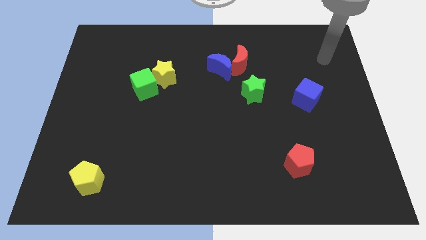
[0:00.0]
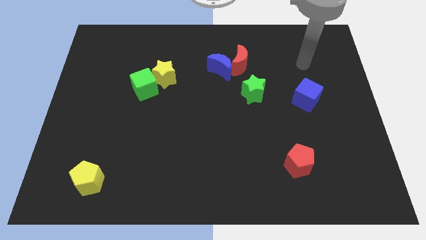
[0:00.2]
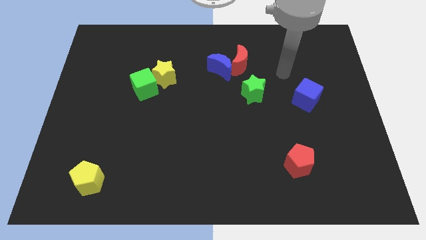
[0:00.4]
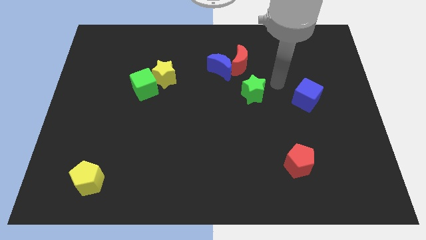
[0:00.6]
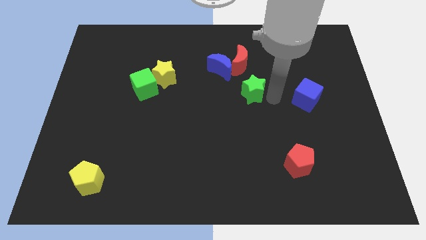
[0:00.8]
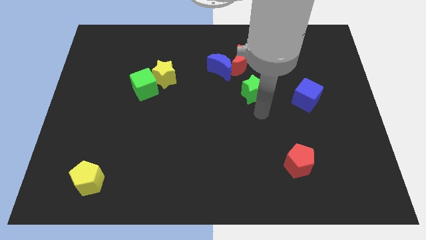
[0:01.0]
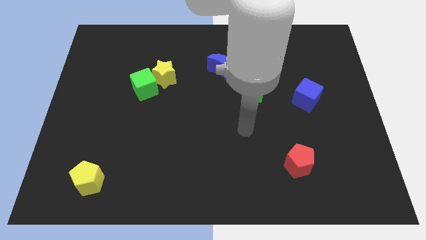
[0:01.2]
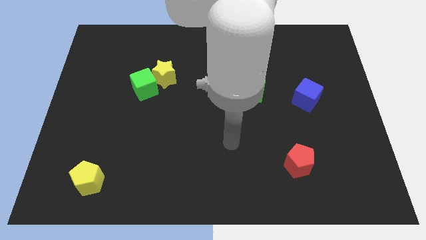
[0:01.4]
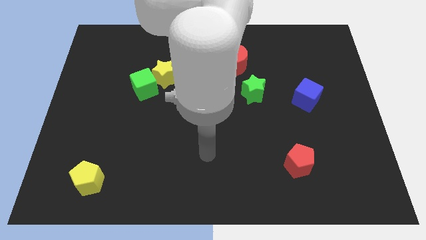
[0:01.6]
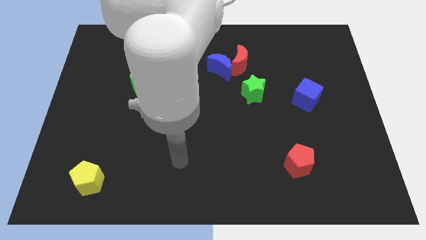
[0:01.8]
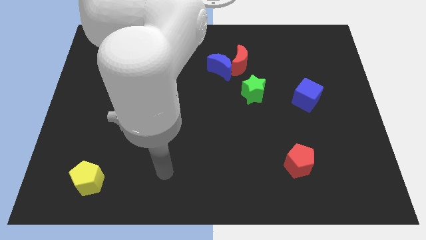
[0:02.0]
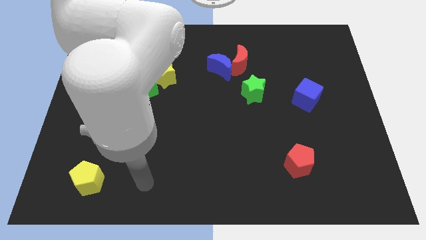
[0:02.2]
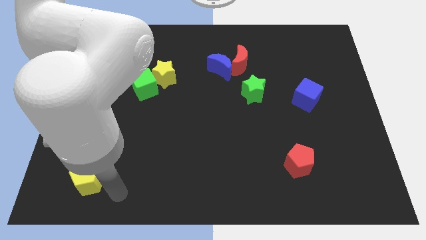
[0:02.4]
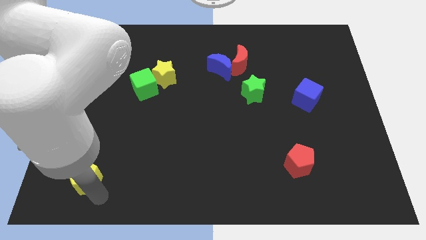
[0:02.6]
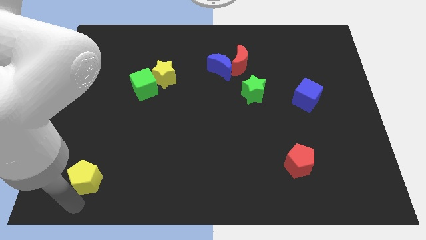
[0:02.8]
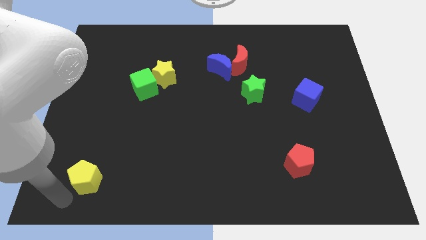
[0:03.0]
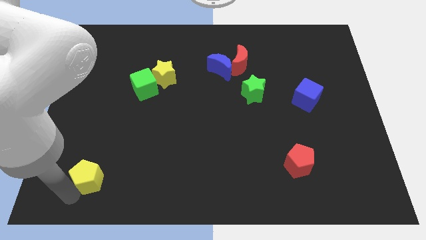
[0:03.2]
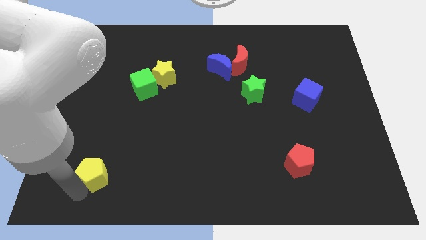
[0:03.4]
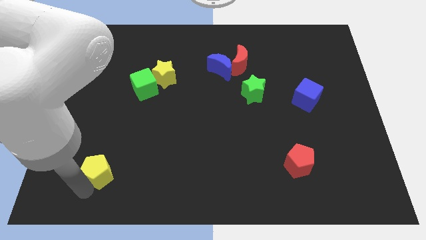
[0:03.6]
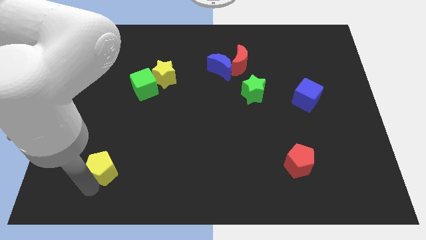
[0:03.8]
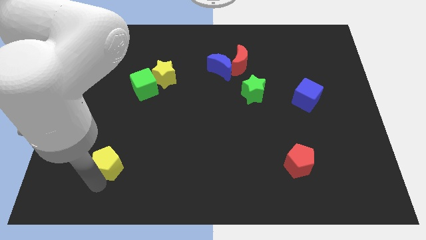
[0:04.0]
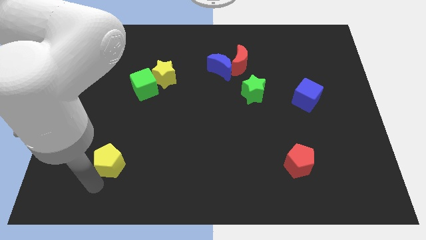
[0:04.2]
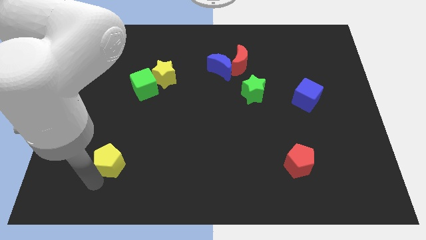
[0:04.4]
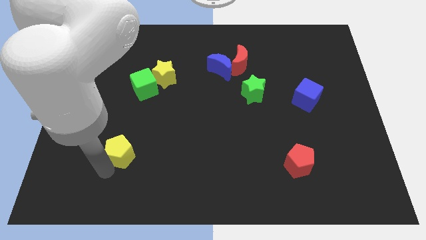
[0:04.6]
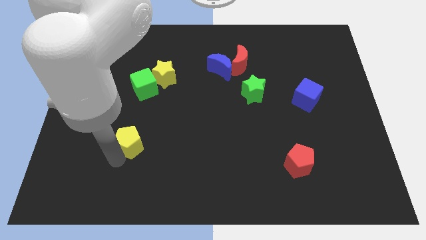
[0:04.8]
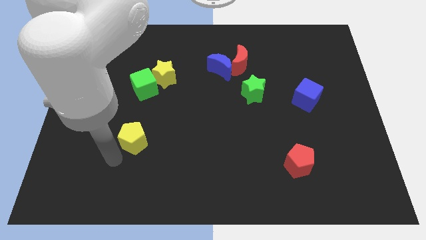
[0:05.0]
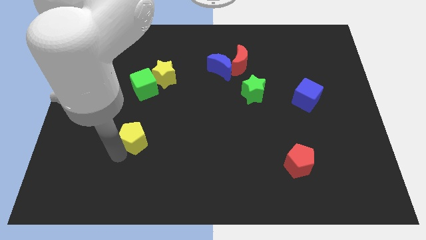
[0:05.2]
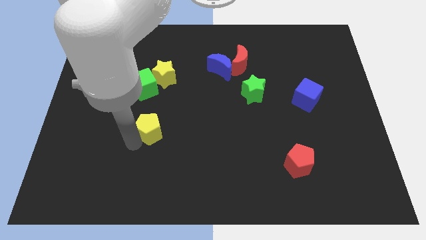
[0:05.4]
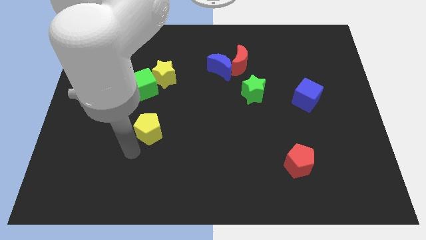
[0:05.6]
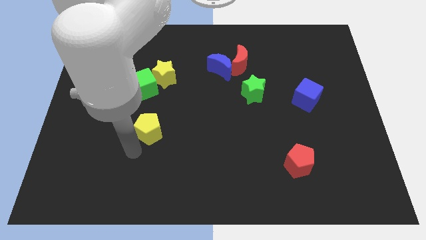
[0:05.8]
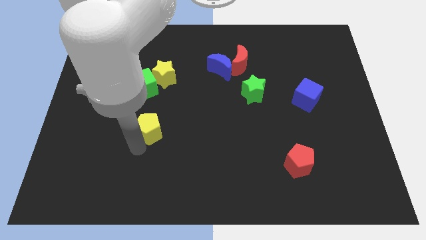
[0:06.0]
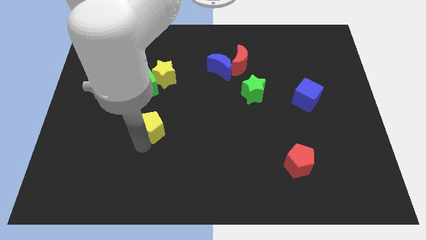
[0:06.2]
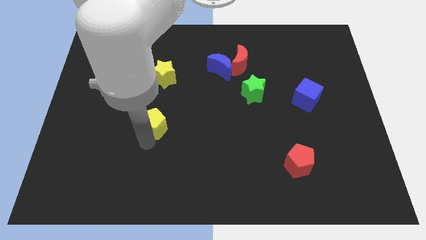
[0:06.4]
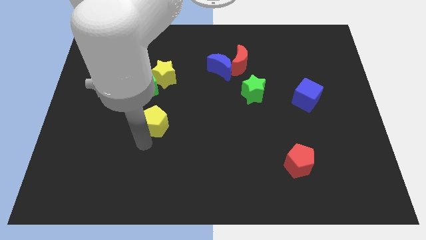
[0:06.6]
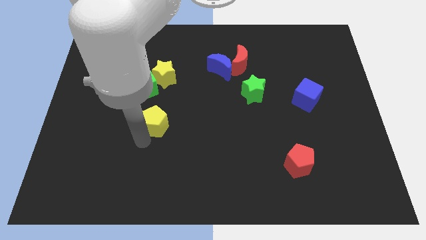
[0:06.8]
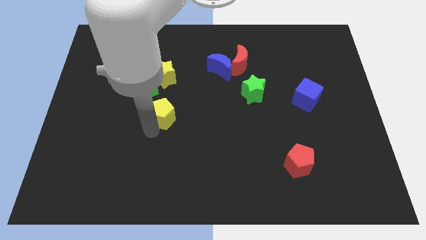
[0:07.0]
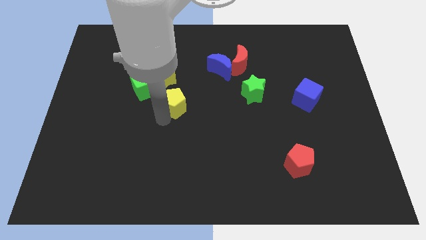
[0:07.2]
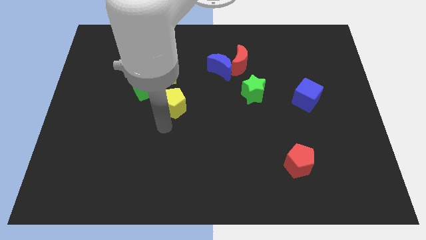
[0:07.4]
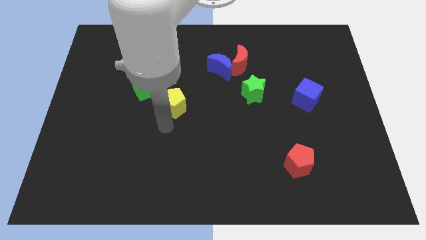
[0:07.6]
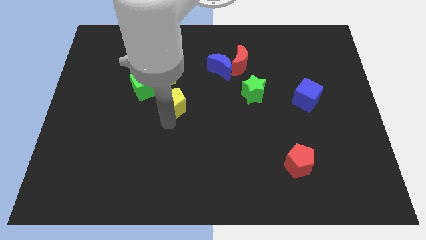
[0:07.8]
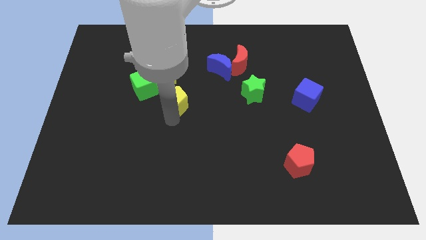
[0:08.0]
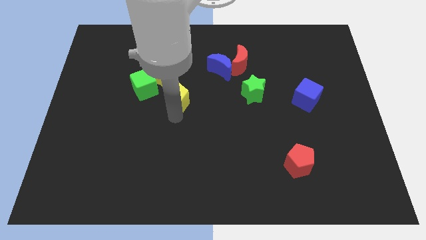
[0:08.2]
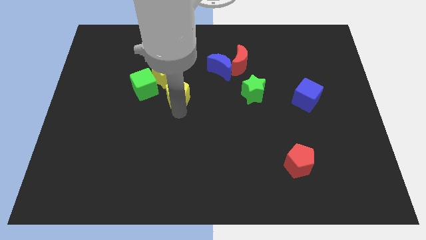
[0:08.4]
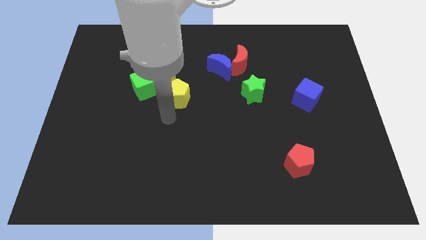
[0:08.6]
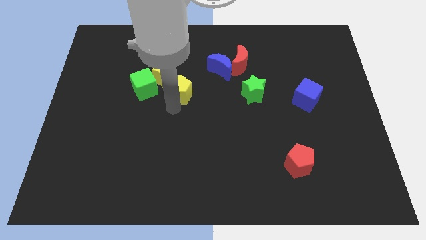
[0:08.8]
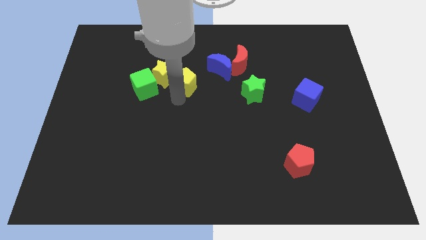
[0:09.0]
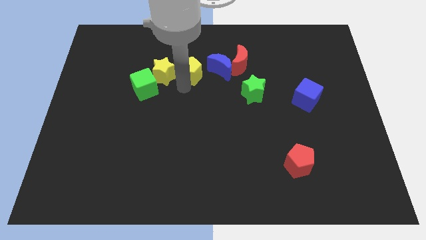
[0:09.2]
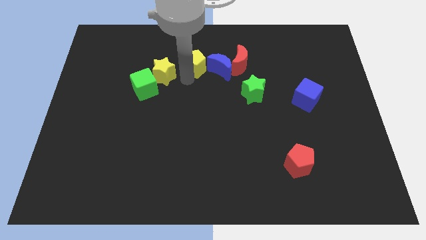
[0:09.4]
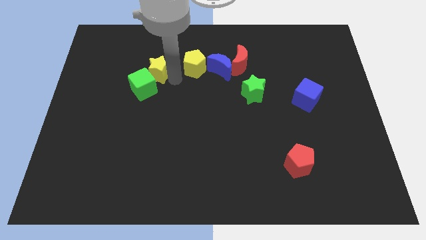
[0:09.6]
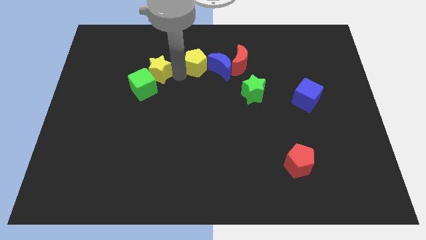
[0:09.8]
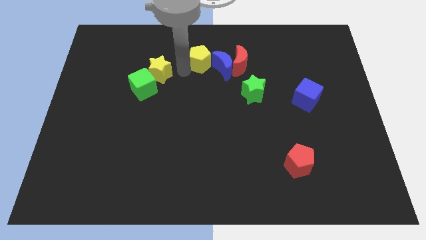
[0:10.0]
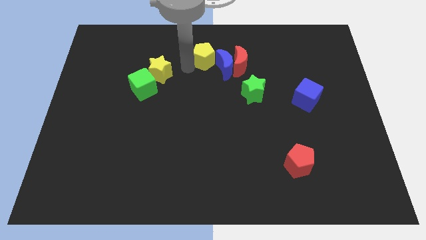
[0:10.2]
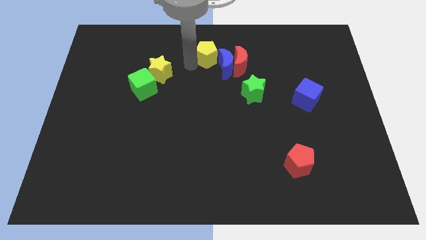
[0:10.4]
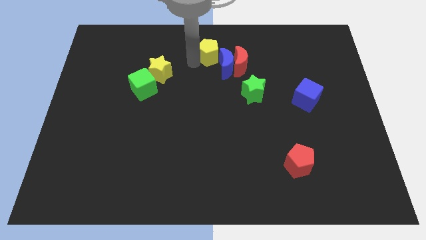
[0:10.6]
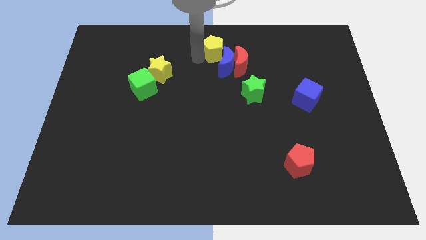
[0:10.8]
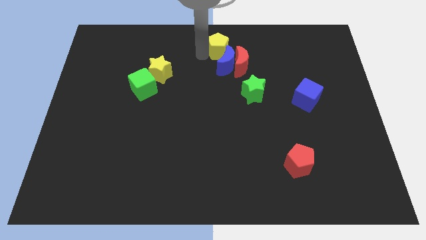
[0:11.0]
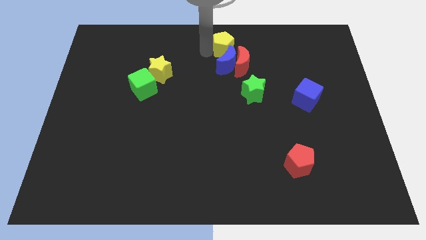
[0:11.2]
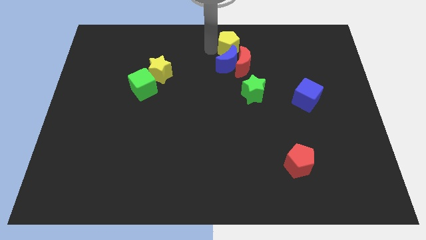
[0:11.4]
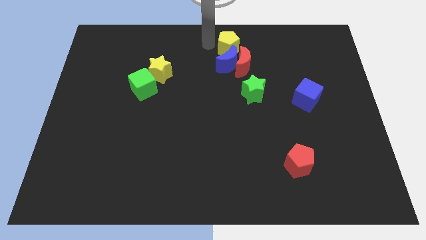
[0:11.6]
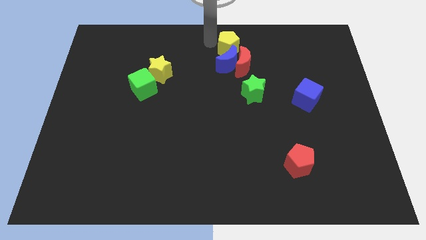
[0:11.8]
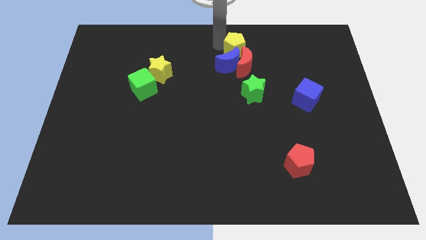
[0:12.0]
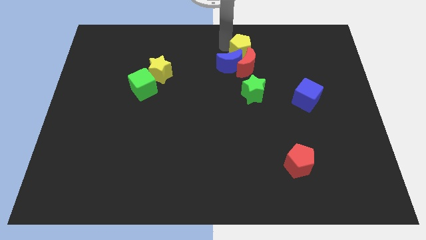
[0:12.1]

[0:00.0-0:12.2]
slide the yellow pentagon above the green star

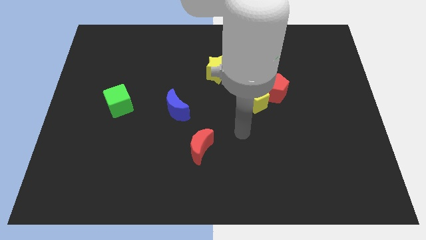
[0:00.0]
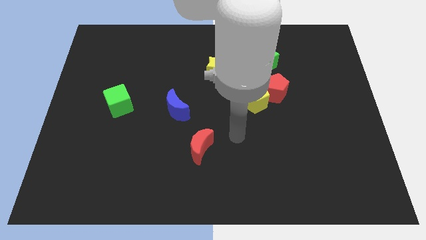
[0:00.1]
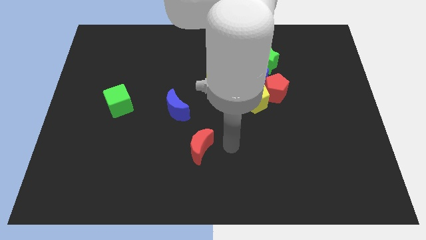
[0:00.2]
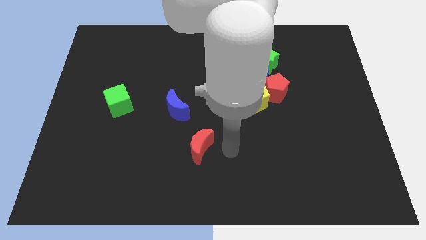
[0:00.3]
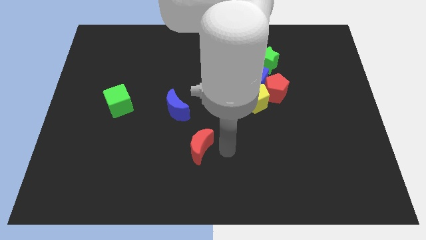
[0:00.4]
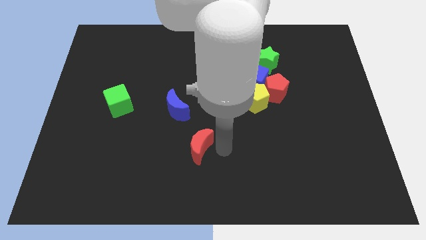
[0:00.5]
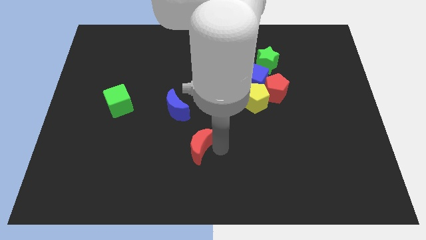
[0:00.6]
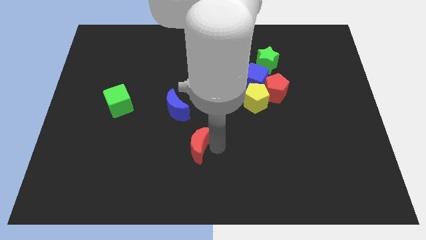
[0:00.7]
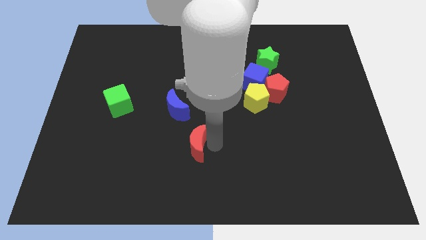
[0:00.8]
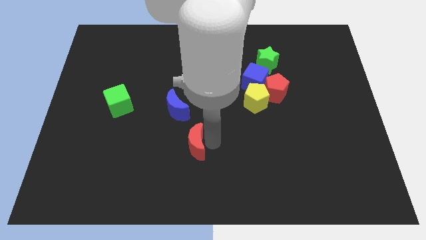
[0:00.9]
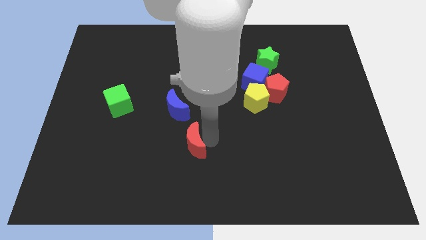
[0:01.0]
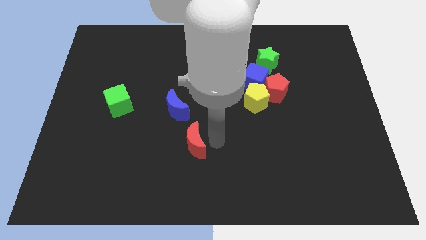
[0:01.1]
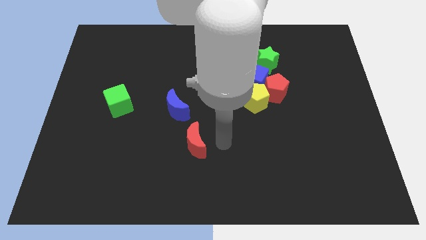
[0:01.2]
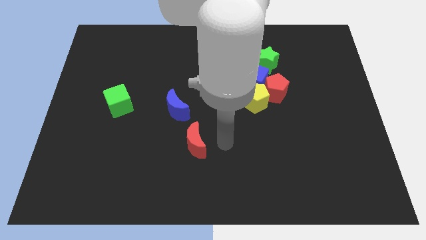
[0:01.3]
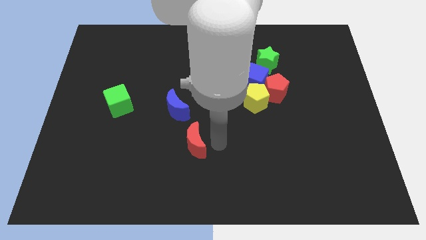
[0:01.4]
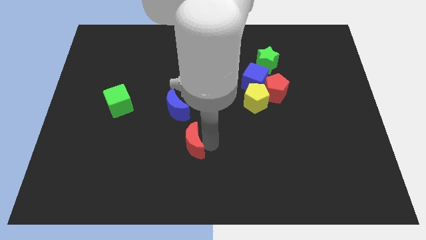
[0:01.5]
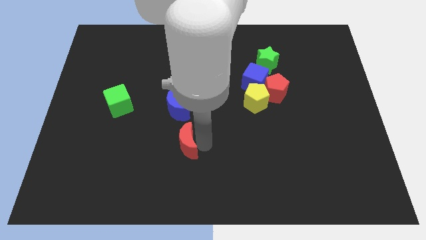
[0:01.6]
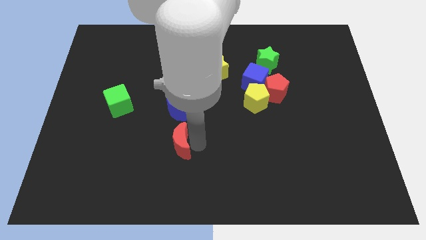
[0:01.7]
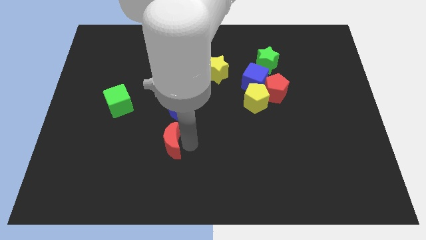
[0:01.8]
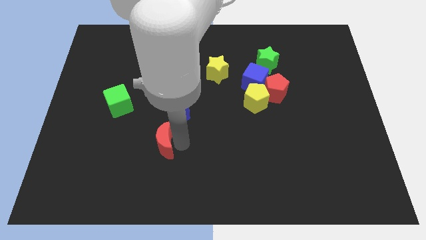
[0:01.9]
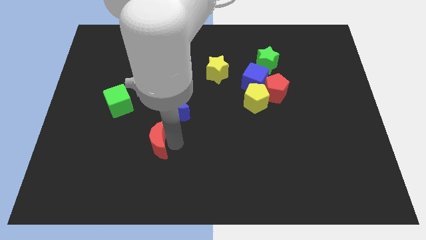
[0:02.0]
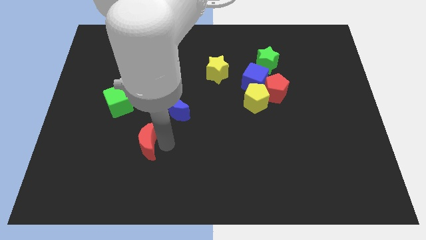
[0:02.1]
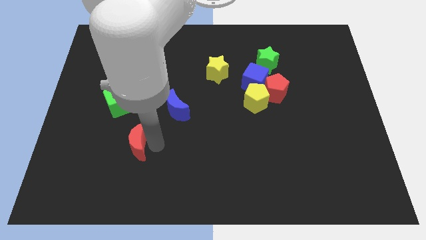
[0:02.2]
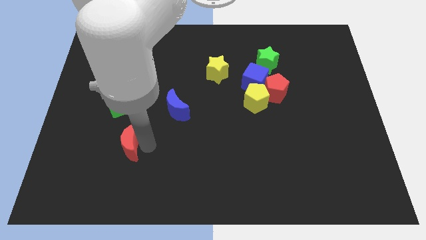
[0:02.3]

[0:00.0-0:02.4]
put the red moon below the green cube

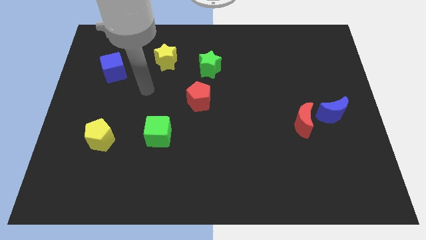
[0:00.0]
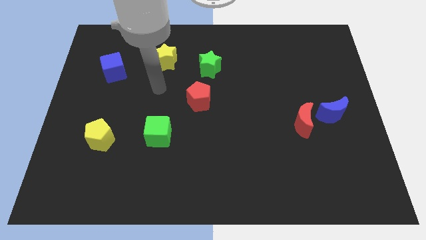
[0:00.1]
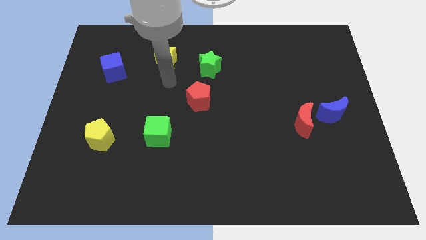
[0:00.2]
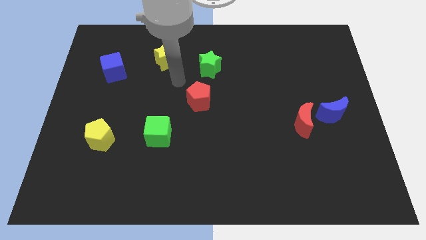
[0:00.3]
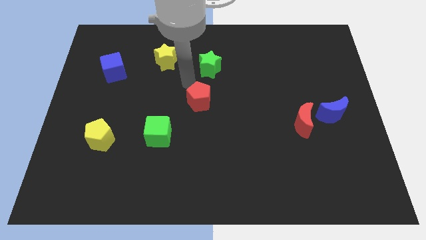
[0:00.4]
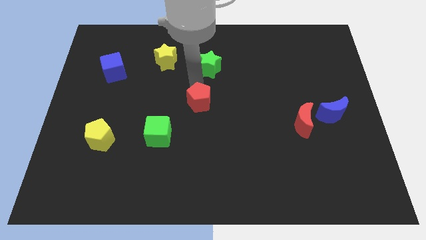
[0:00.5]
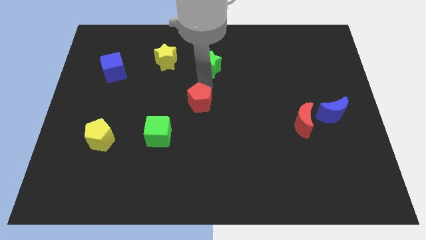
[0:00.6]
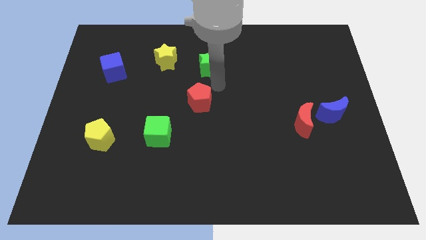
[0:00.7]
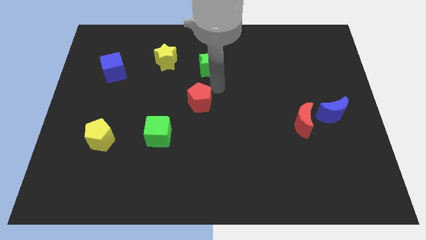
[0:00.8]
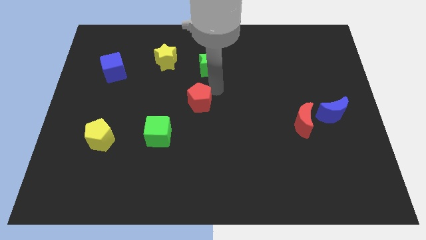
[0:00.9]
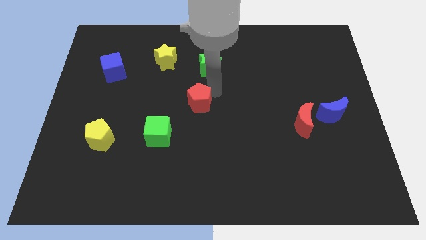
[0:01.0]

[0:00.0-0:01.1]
put the red pentagon diagonally up and to the right of the green cube
